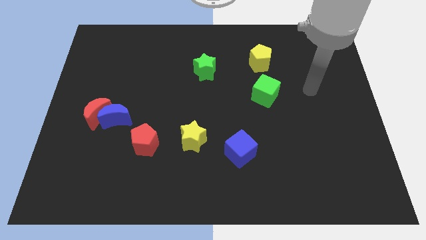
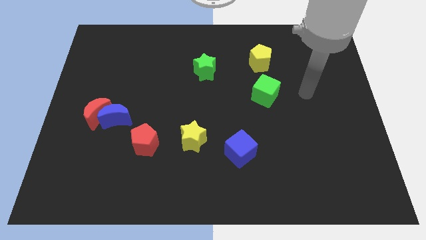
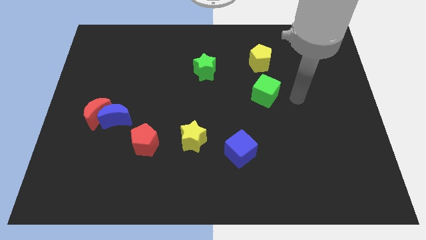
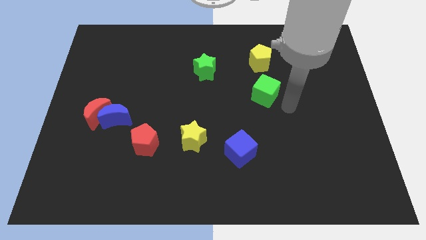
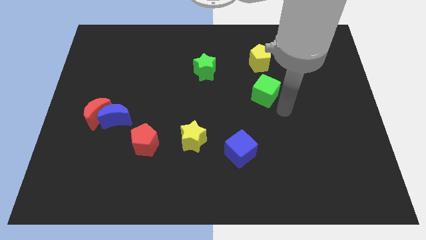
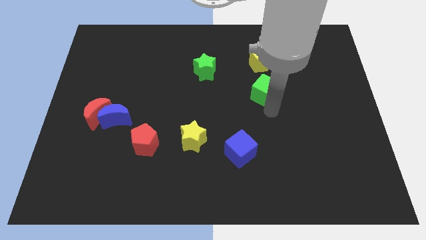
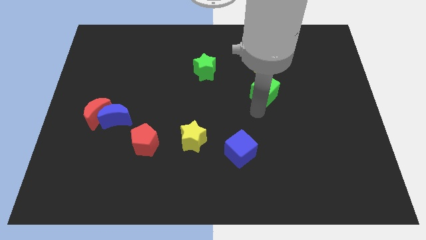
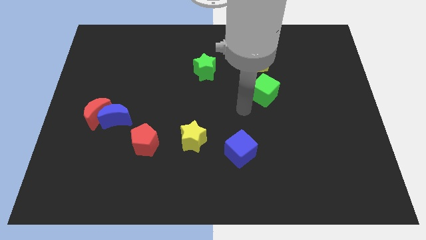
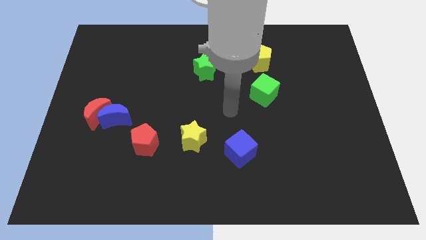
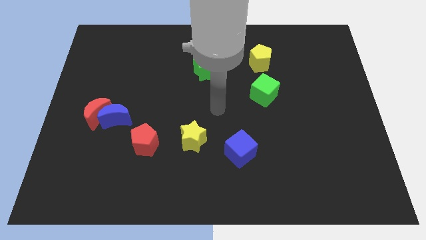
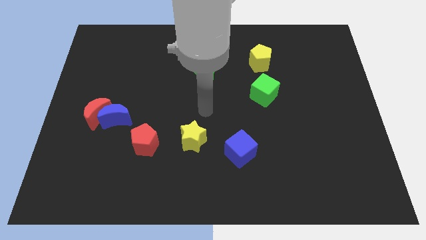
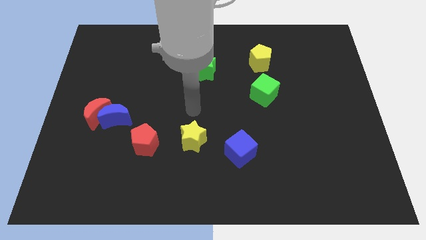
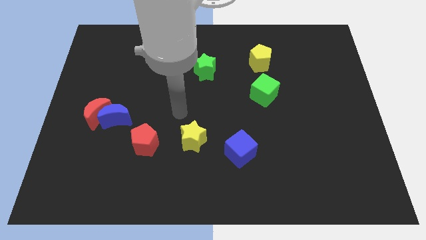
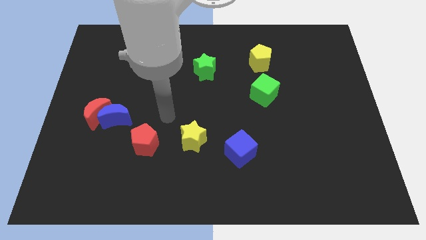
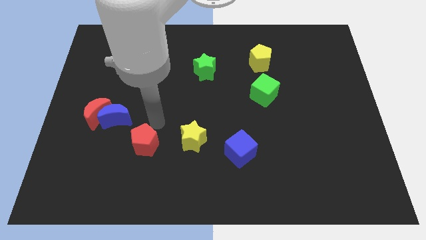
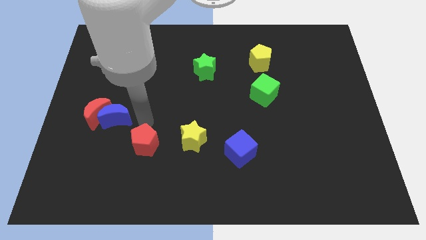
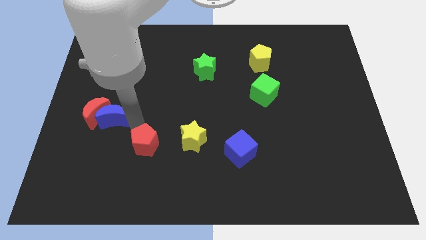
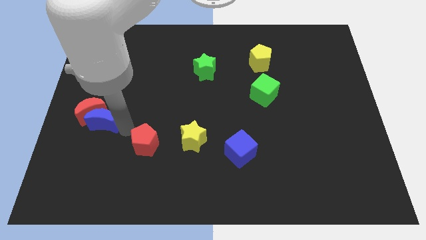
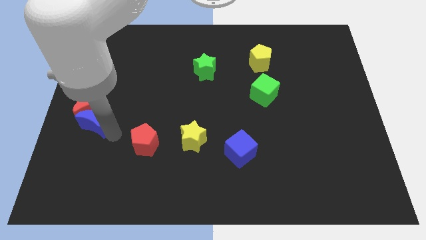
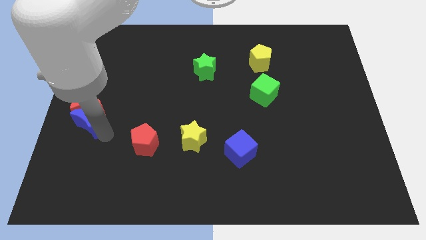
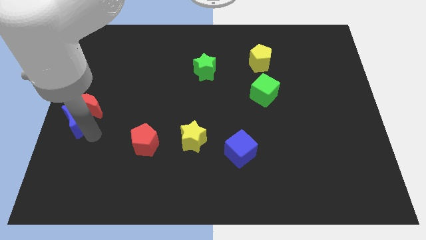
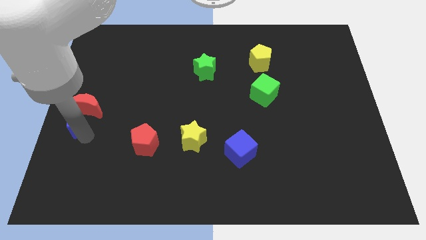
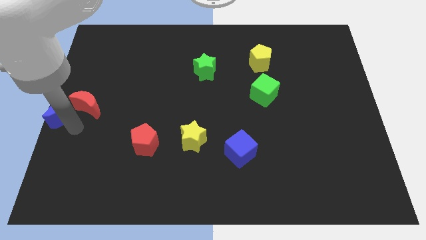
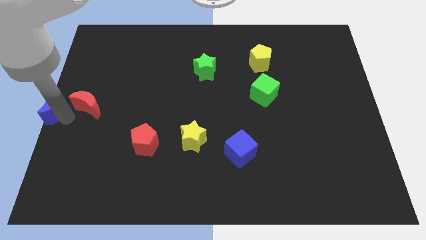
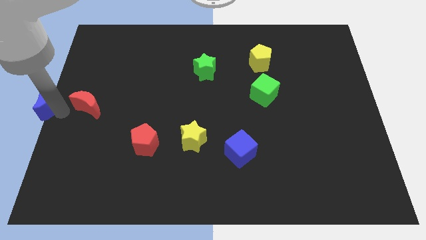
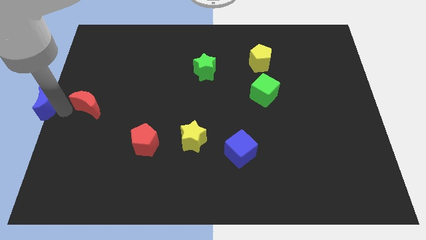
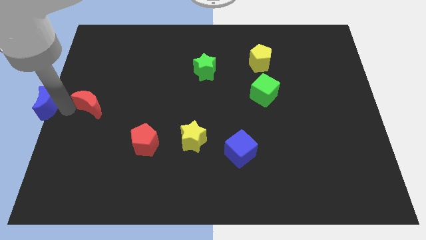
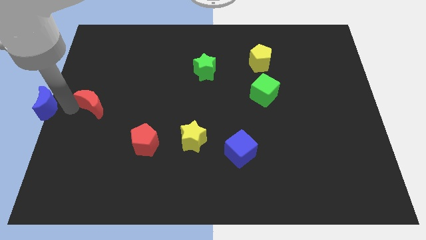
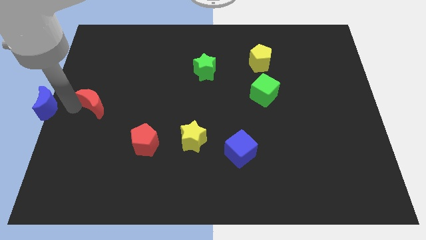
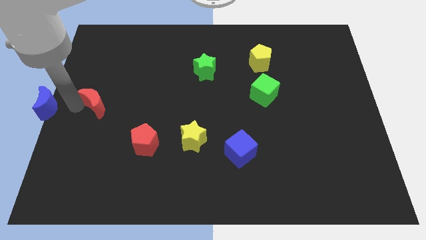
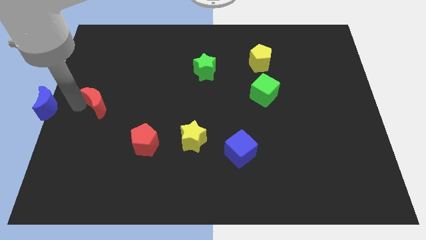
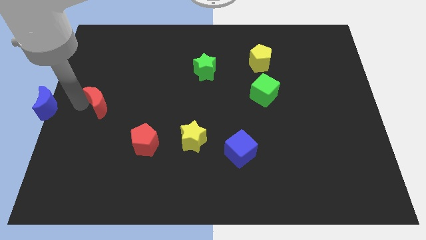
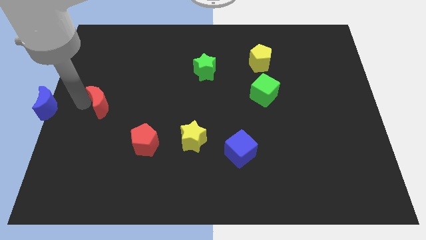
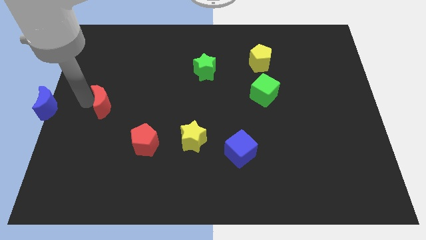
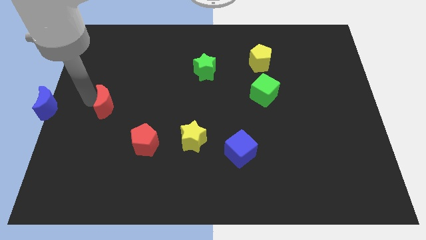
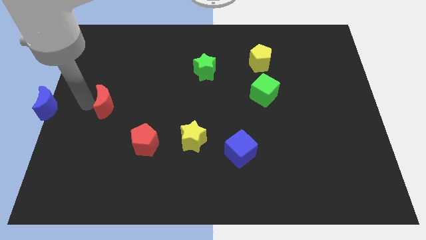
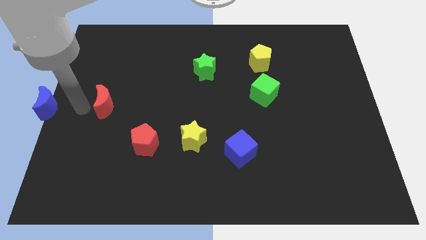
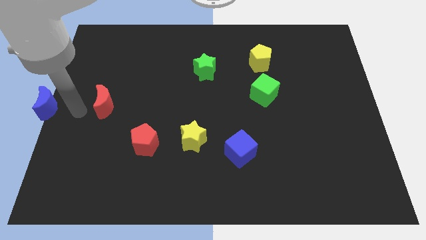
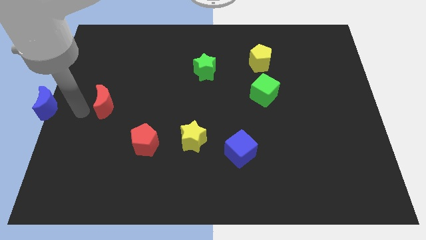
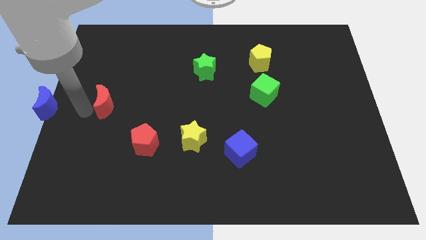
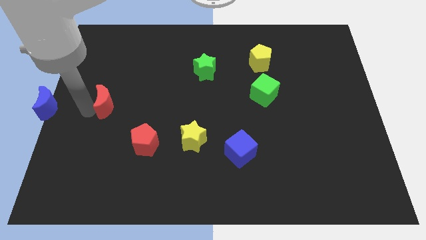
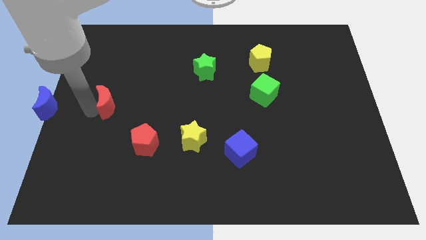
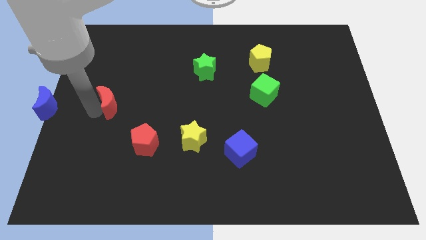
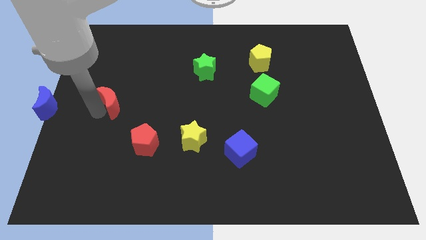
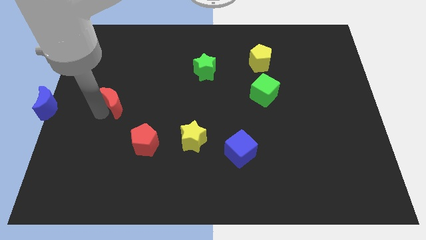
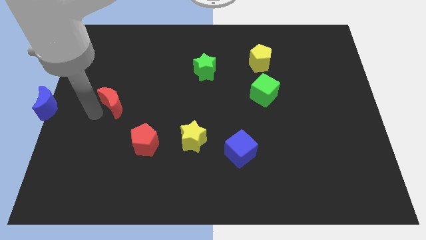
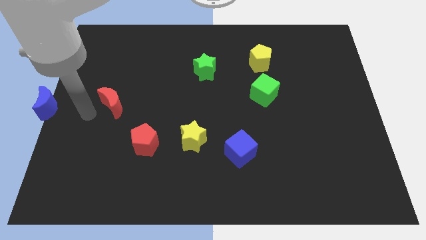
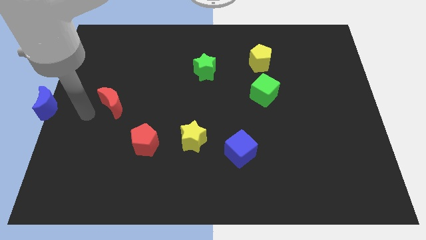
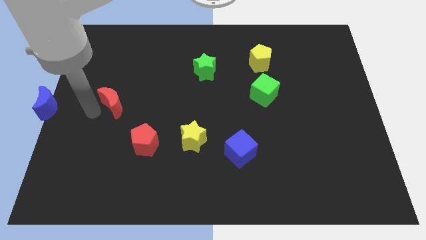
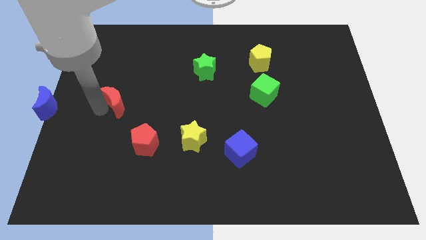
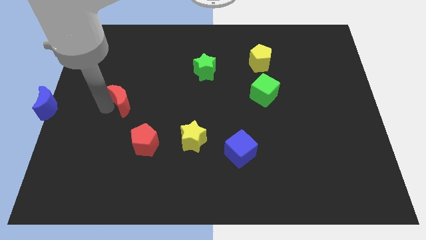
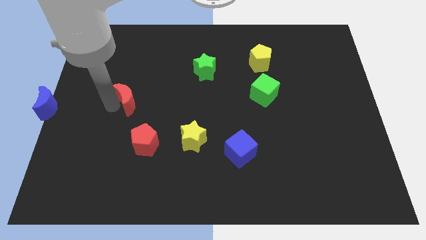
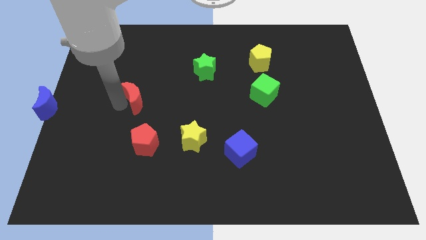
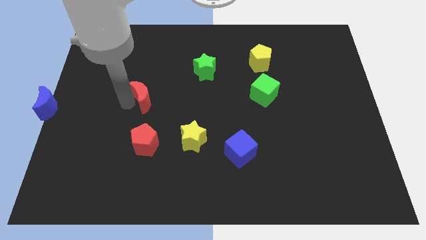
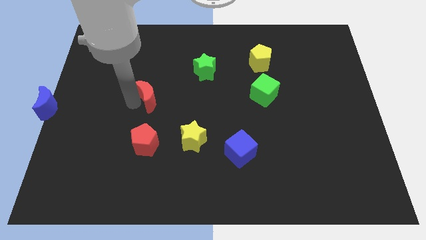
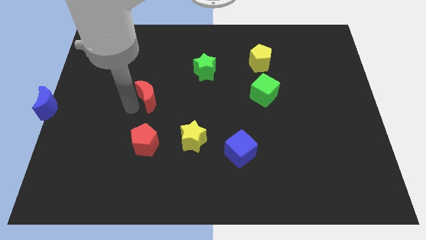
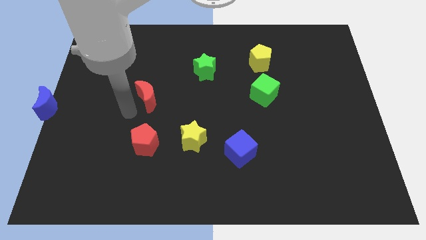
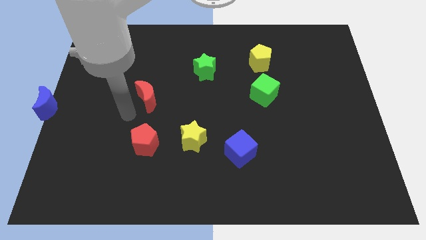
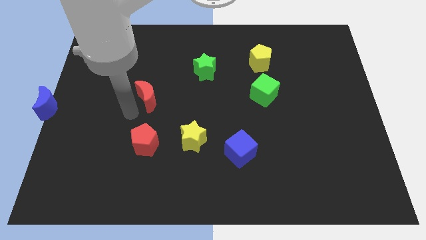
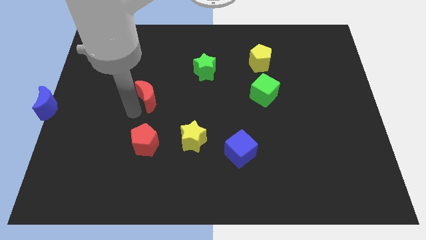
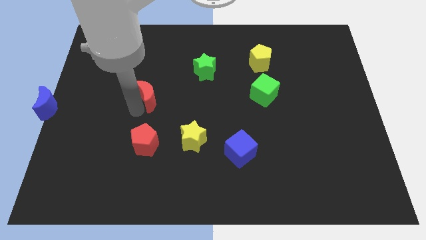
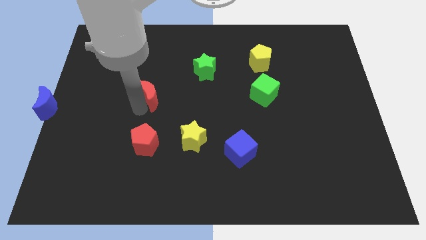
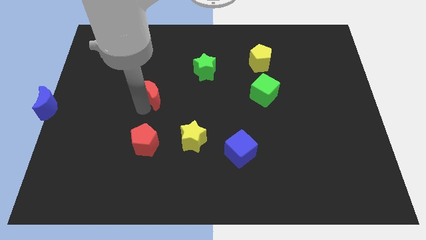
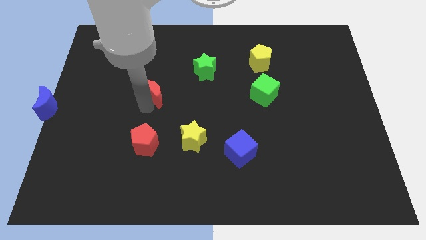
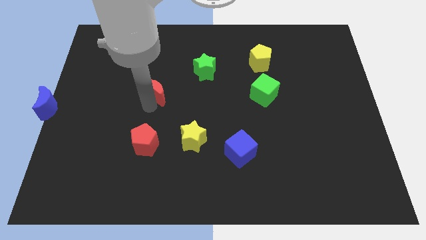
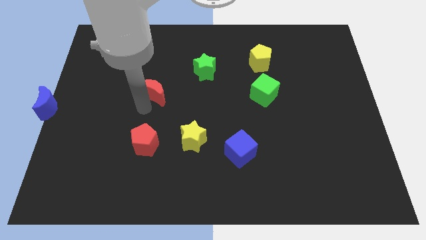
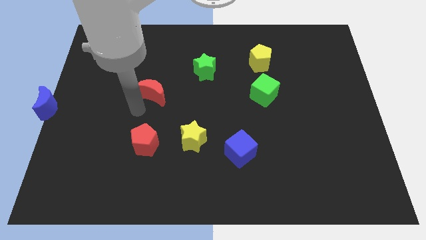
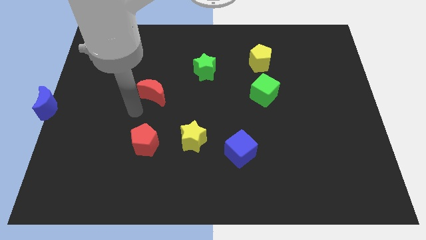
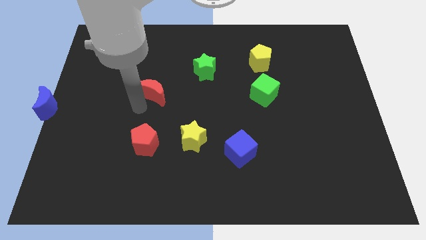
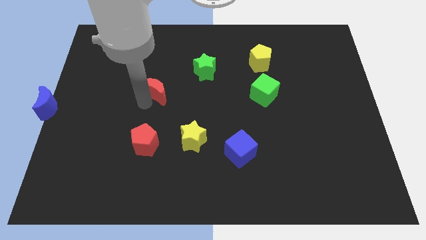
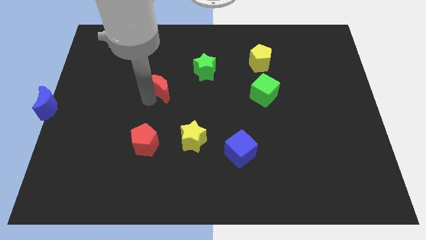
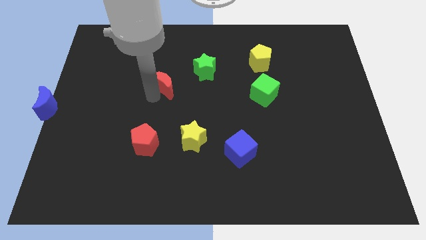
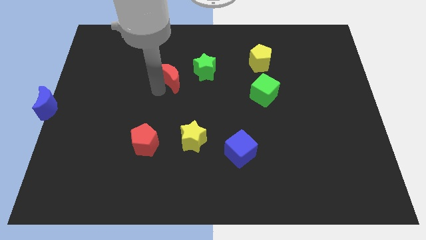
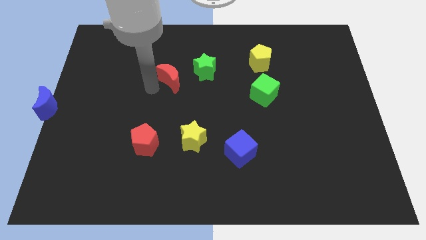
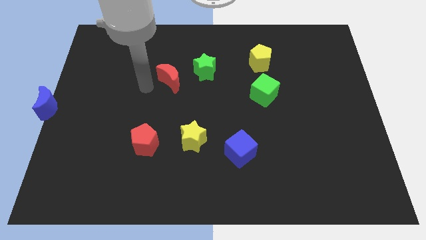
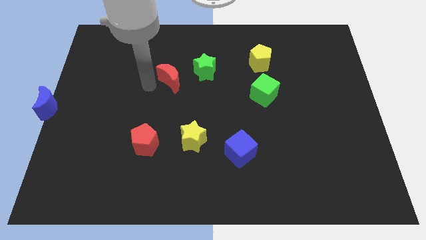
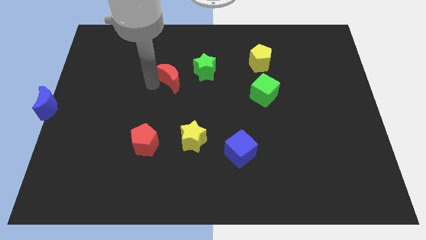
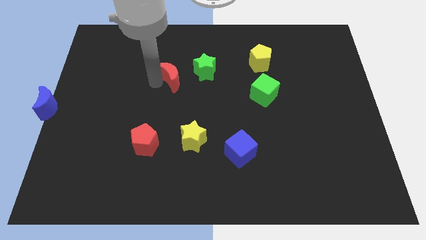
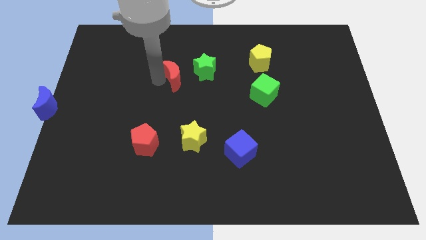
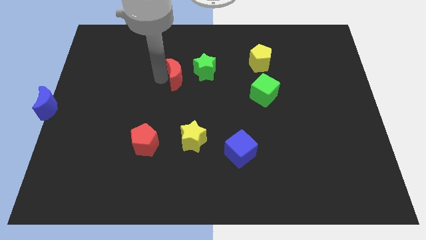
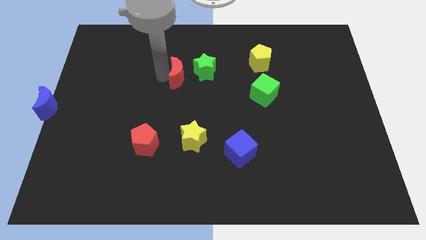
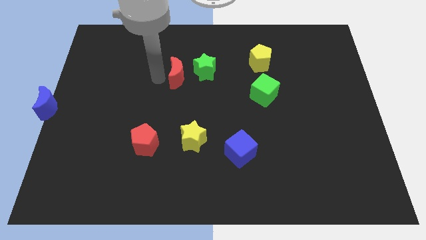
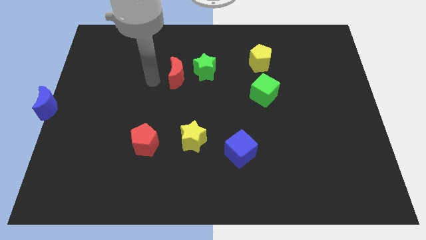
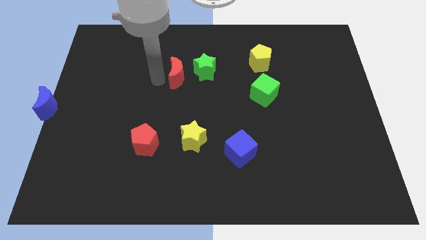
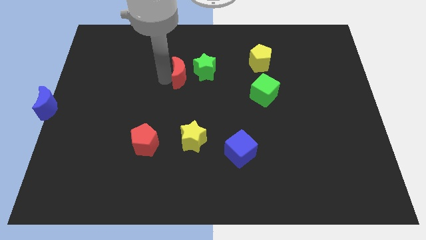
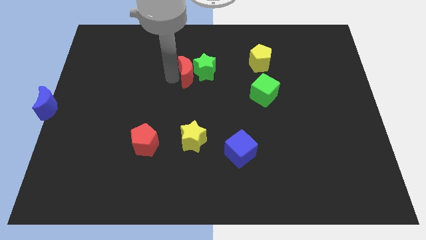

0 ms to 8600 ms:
slide the red moon next to the green star
